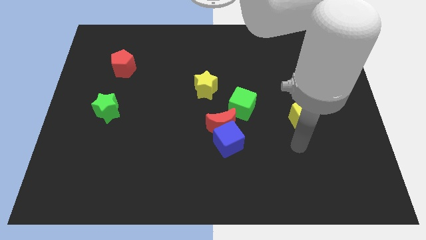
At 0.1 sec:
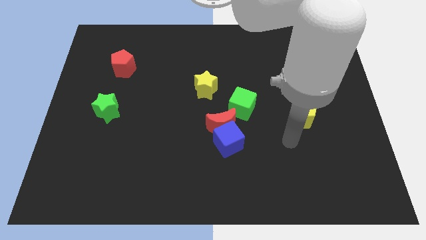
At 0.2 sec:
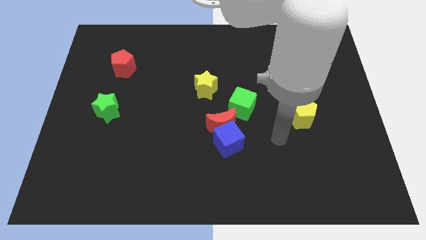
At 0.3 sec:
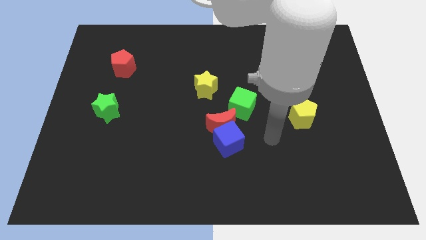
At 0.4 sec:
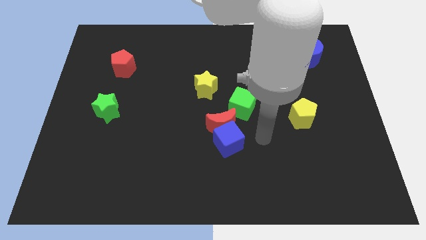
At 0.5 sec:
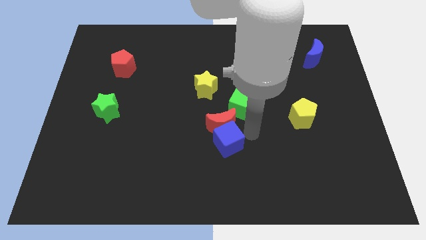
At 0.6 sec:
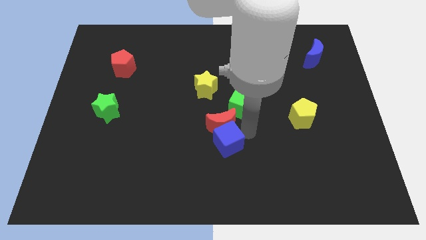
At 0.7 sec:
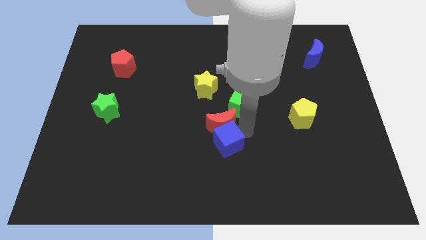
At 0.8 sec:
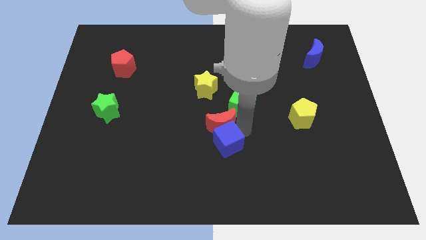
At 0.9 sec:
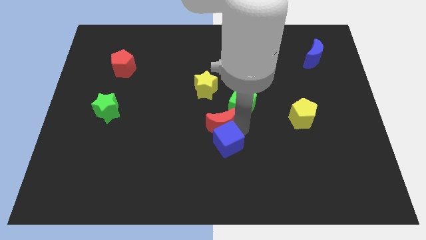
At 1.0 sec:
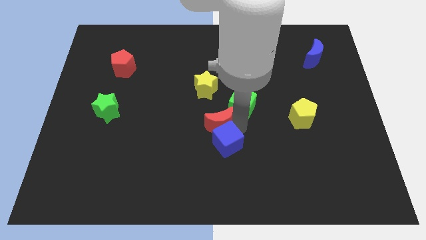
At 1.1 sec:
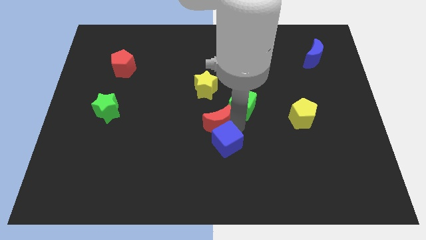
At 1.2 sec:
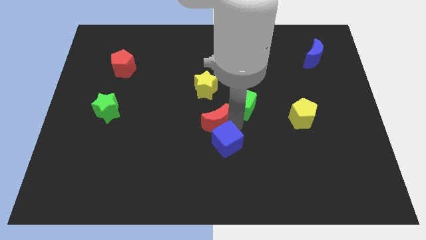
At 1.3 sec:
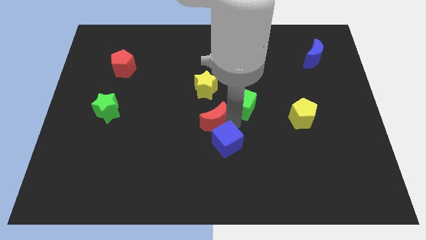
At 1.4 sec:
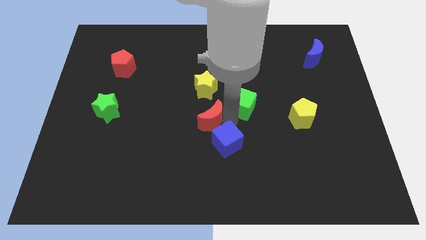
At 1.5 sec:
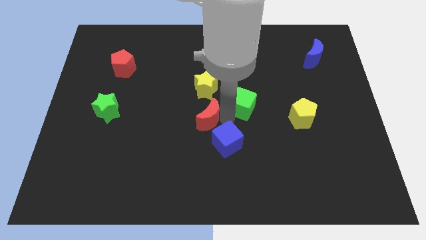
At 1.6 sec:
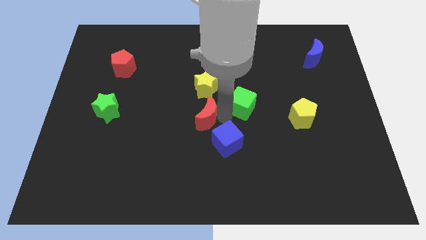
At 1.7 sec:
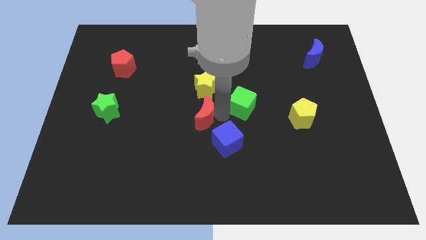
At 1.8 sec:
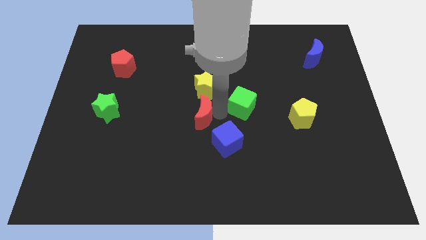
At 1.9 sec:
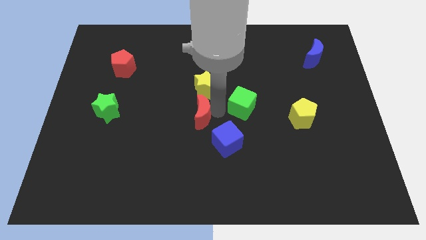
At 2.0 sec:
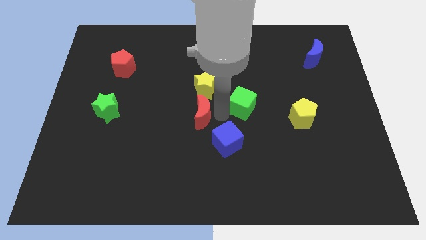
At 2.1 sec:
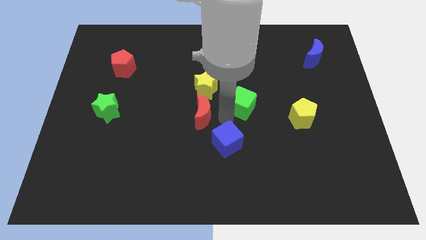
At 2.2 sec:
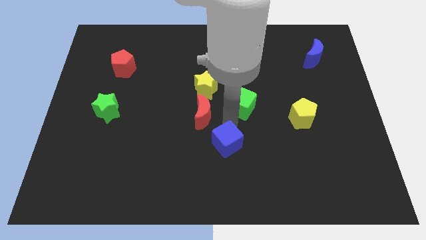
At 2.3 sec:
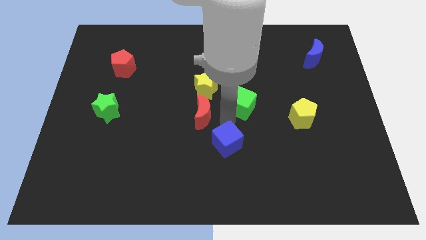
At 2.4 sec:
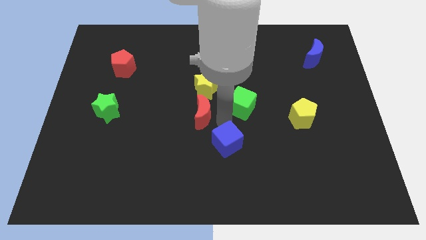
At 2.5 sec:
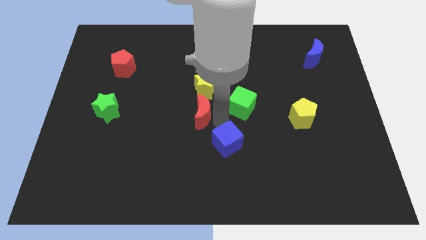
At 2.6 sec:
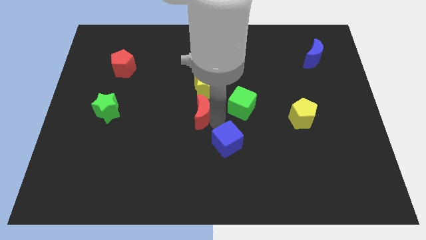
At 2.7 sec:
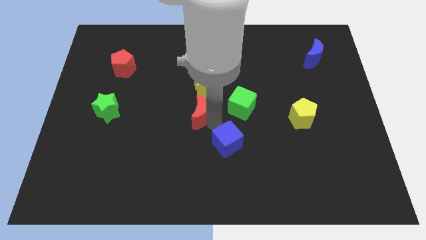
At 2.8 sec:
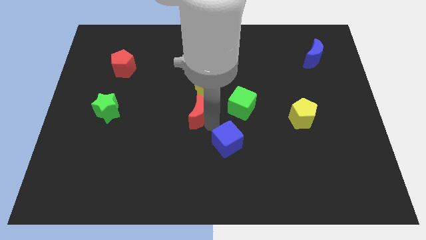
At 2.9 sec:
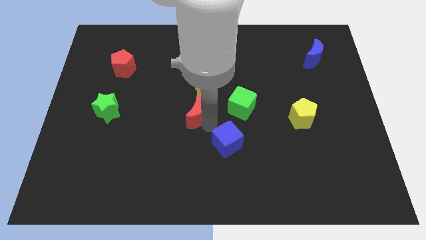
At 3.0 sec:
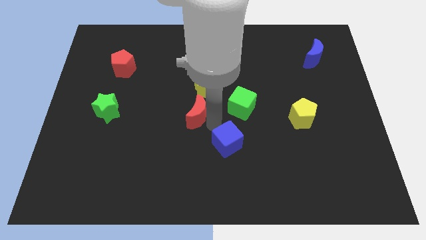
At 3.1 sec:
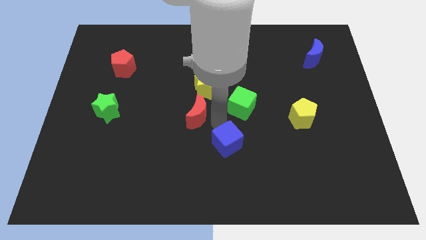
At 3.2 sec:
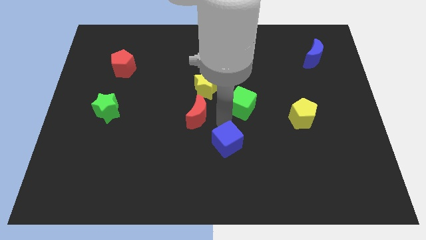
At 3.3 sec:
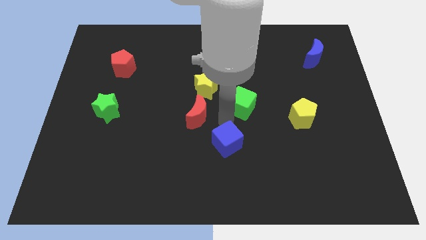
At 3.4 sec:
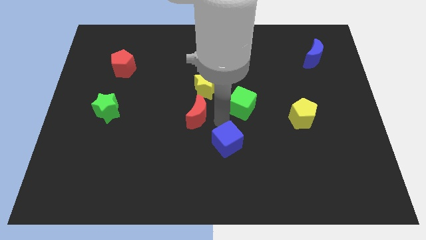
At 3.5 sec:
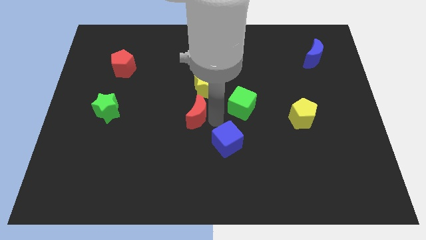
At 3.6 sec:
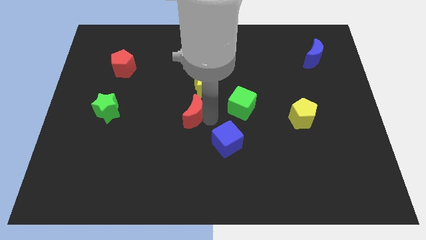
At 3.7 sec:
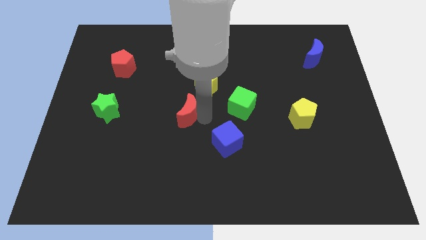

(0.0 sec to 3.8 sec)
pull the red moon apart from the blue cube and green cube

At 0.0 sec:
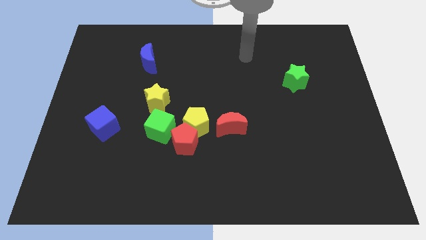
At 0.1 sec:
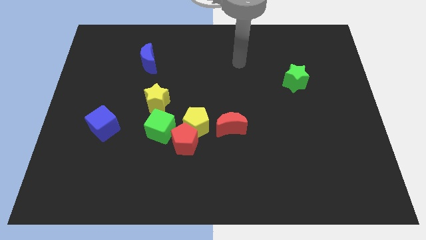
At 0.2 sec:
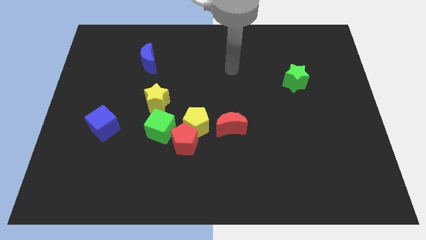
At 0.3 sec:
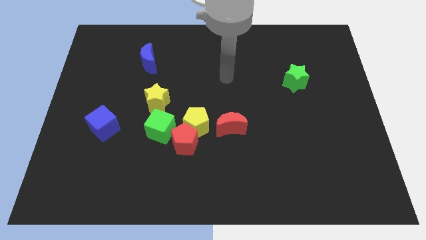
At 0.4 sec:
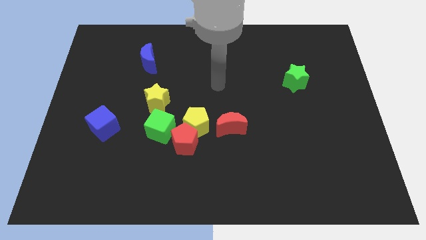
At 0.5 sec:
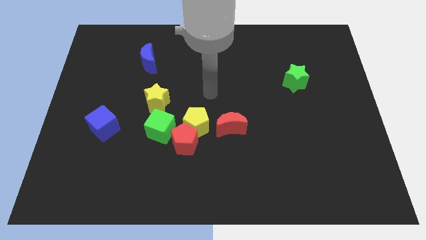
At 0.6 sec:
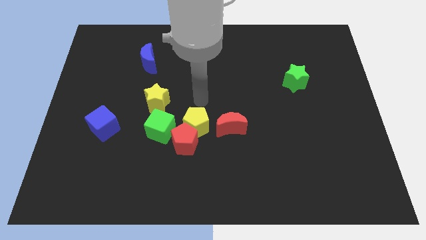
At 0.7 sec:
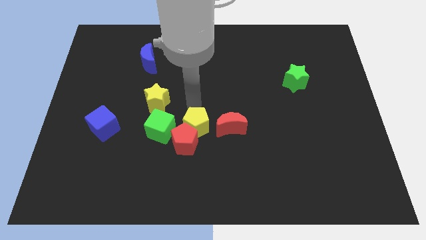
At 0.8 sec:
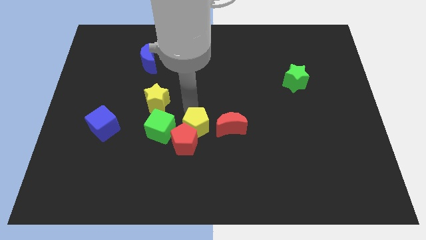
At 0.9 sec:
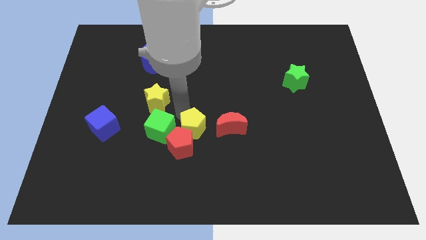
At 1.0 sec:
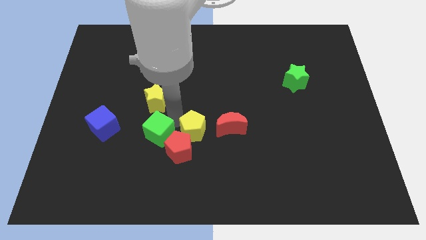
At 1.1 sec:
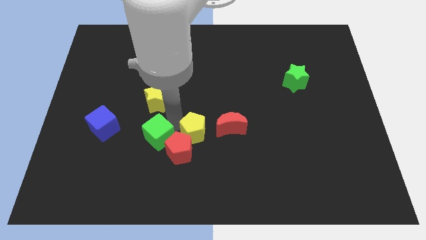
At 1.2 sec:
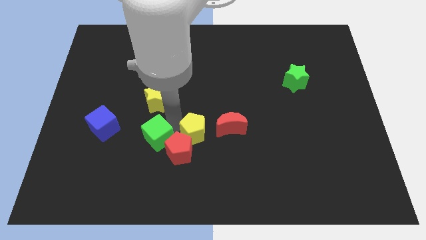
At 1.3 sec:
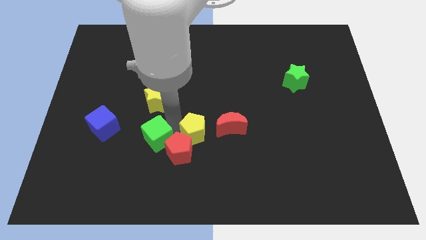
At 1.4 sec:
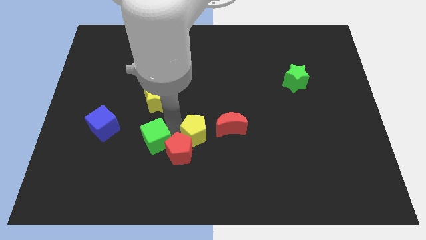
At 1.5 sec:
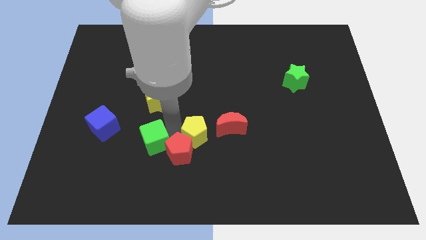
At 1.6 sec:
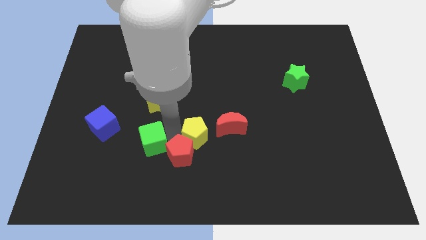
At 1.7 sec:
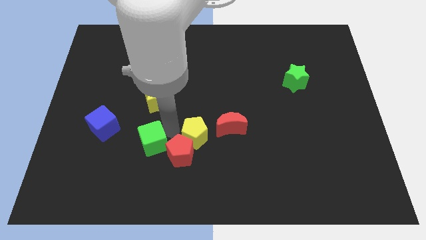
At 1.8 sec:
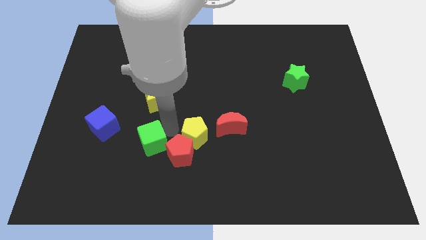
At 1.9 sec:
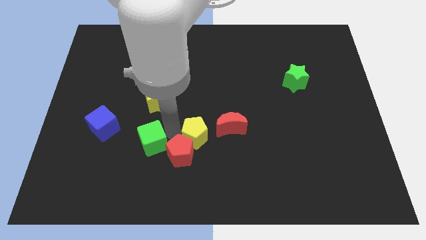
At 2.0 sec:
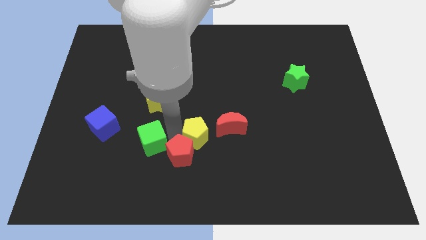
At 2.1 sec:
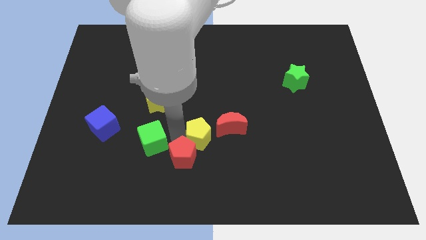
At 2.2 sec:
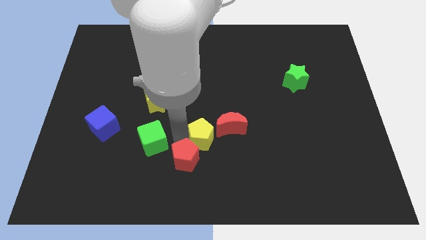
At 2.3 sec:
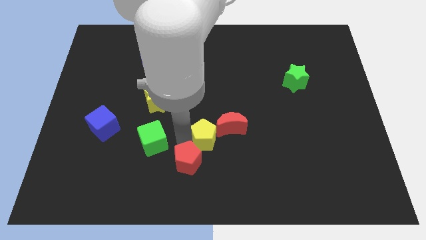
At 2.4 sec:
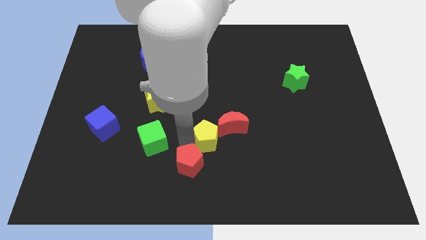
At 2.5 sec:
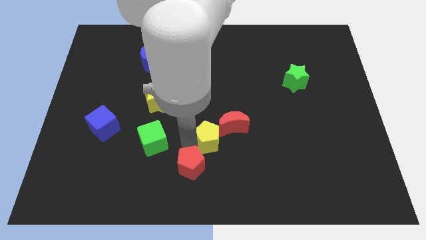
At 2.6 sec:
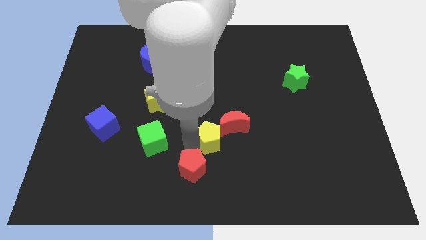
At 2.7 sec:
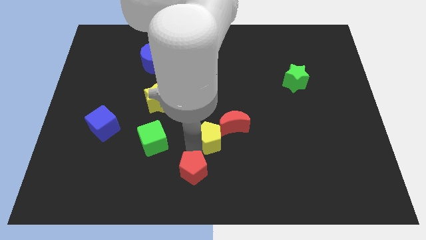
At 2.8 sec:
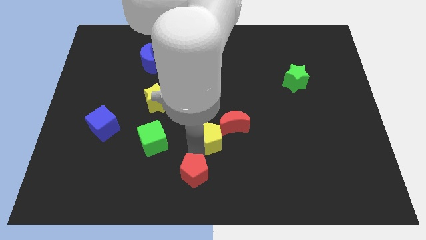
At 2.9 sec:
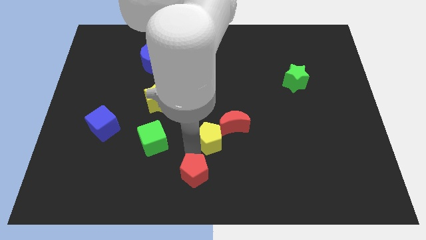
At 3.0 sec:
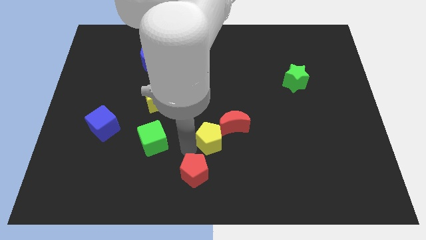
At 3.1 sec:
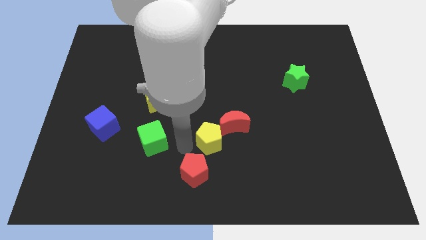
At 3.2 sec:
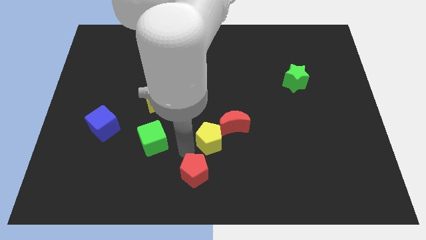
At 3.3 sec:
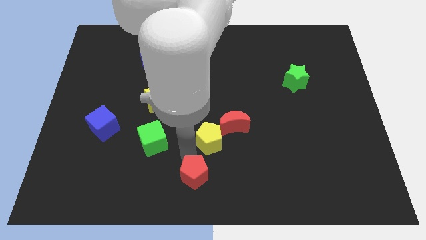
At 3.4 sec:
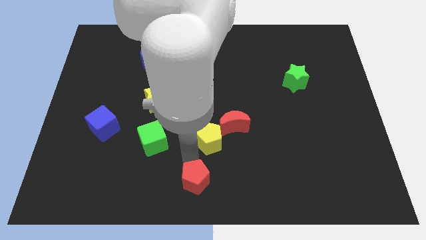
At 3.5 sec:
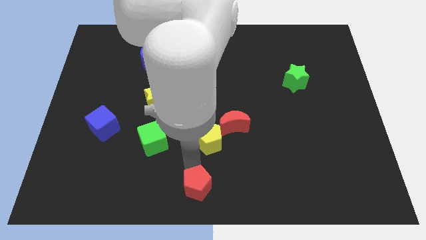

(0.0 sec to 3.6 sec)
pull the red pentagon apart from the yellow pentagon and green cube

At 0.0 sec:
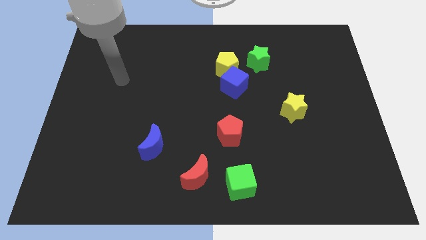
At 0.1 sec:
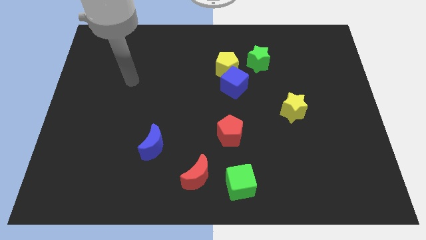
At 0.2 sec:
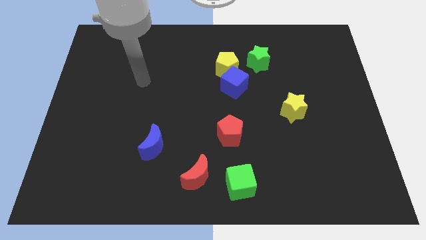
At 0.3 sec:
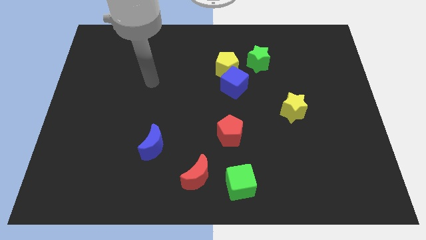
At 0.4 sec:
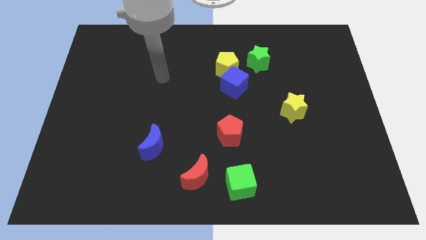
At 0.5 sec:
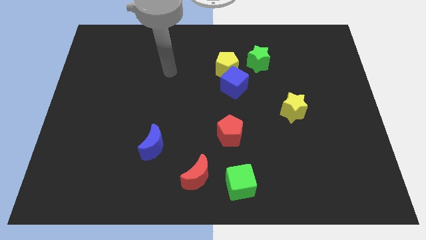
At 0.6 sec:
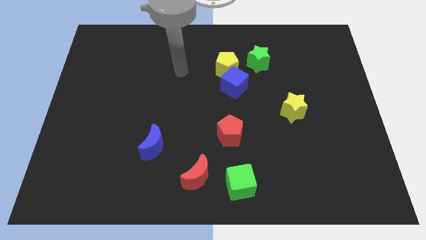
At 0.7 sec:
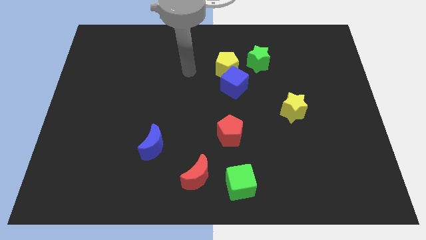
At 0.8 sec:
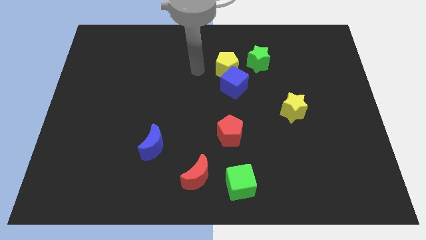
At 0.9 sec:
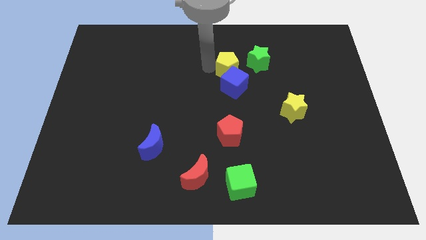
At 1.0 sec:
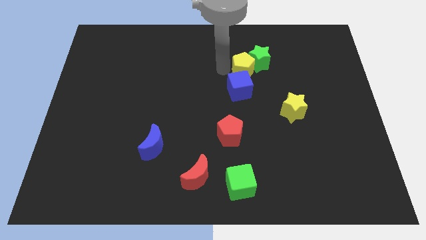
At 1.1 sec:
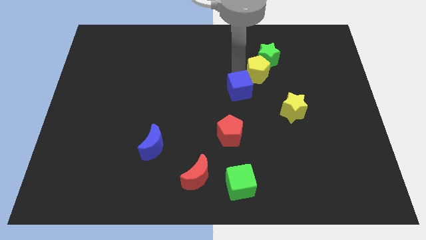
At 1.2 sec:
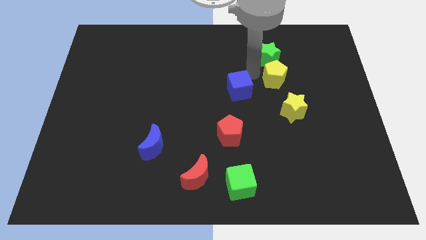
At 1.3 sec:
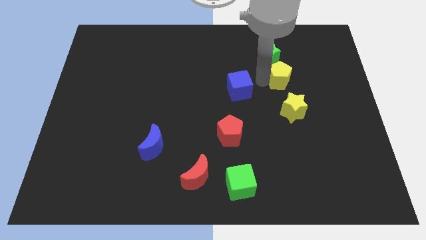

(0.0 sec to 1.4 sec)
pull the blue cube apart from the yellow pentagon

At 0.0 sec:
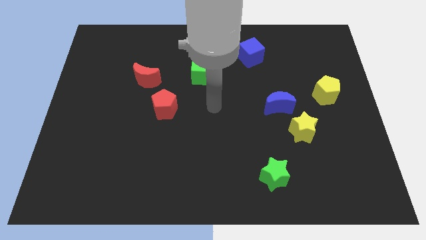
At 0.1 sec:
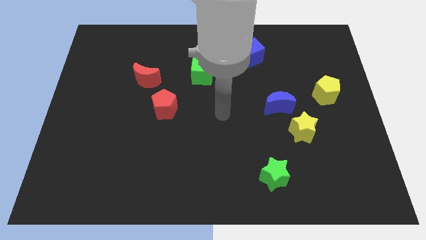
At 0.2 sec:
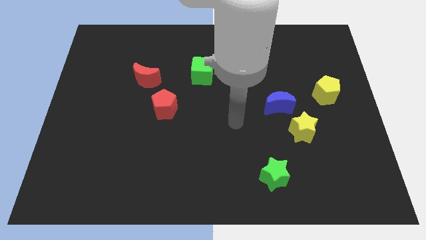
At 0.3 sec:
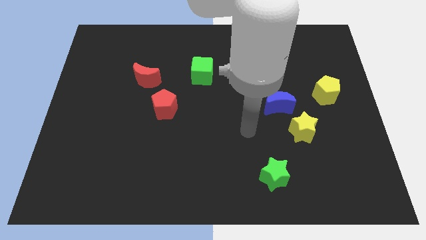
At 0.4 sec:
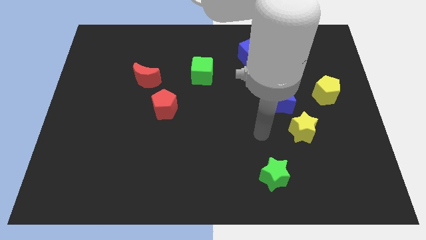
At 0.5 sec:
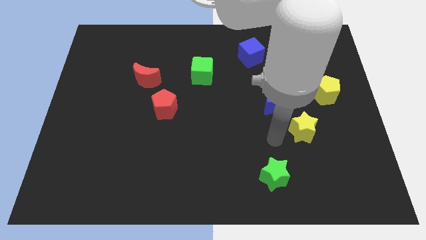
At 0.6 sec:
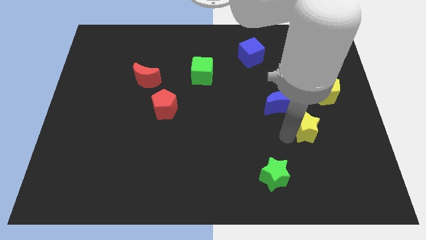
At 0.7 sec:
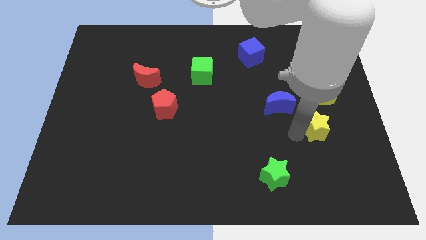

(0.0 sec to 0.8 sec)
separate the blue moon from the yellow star
